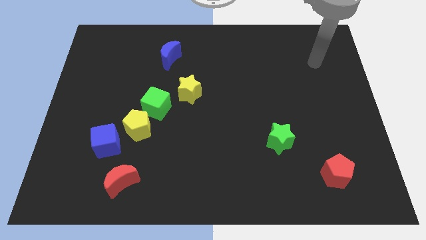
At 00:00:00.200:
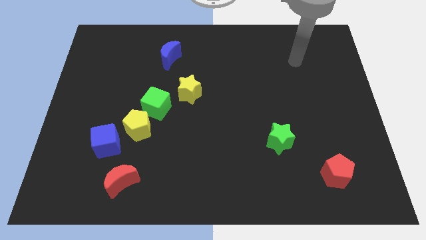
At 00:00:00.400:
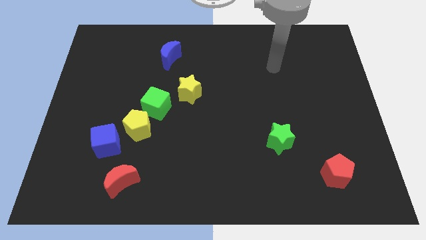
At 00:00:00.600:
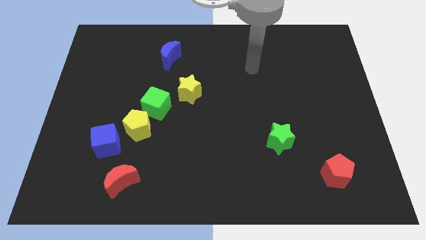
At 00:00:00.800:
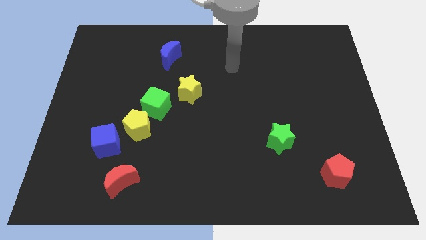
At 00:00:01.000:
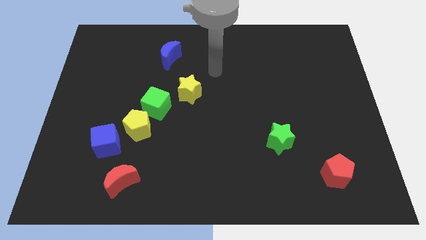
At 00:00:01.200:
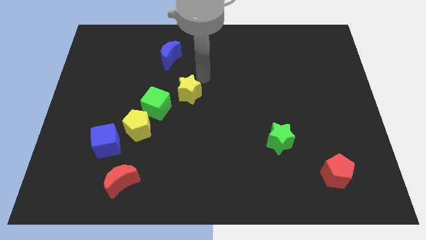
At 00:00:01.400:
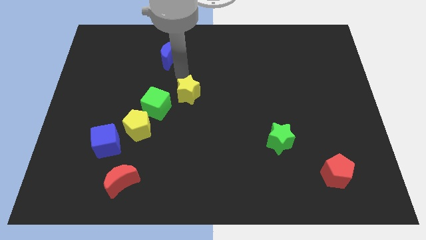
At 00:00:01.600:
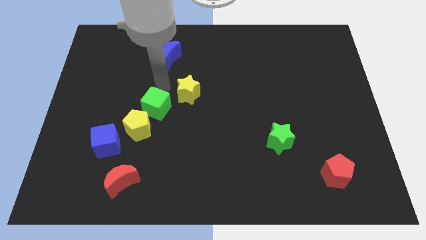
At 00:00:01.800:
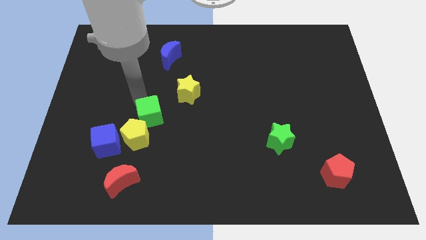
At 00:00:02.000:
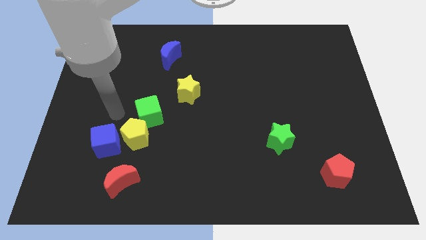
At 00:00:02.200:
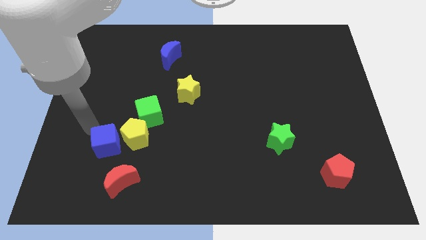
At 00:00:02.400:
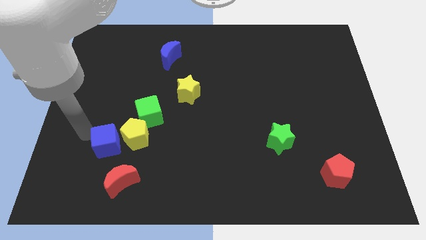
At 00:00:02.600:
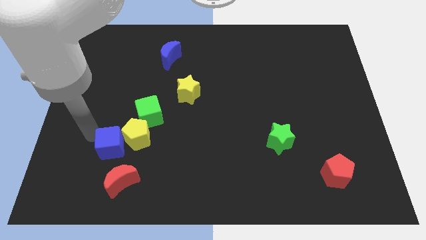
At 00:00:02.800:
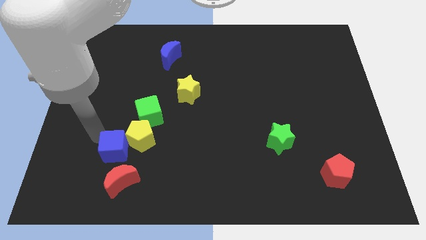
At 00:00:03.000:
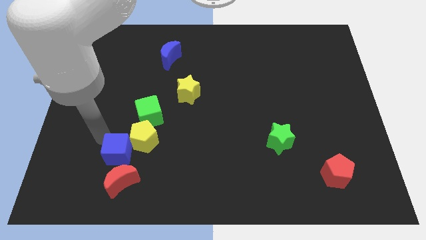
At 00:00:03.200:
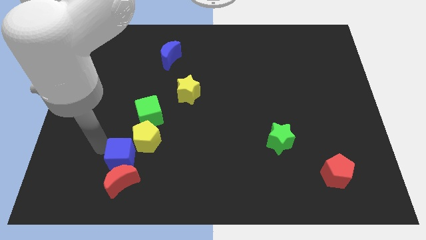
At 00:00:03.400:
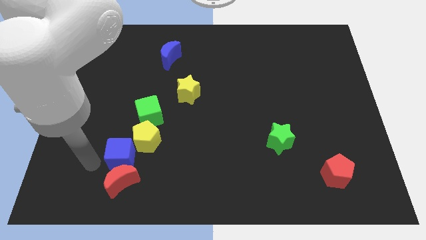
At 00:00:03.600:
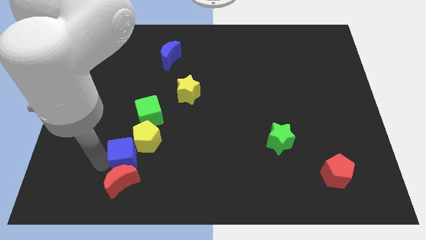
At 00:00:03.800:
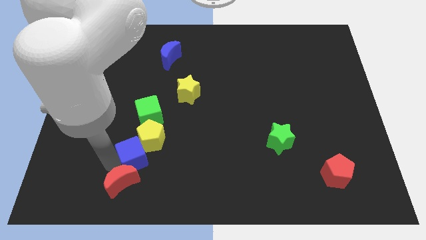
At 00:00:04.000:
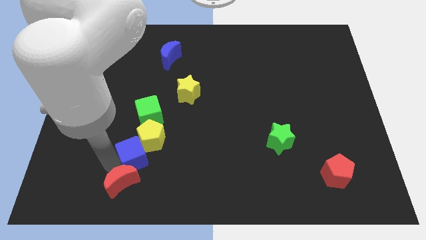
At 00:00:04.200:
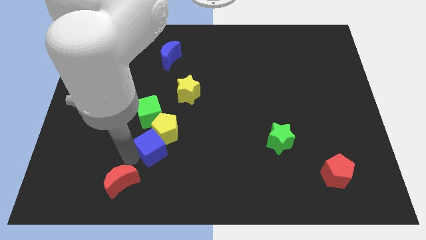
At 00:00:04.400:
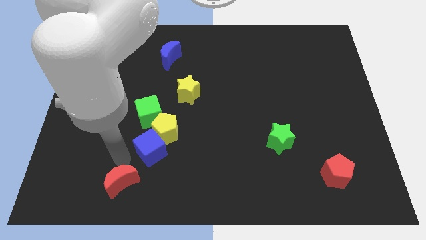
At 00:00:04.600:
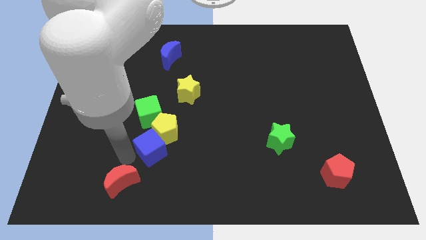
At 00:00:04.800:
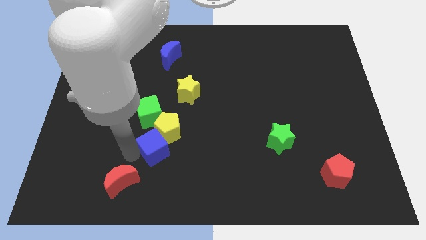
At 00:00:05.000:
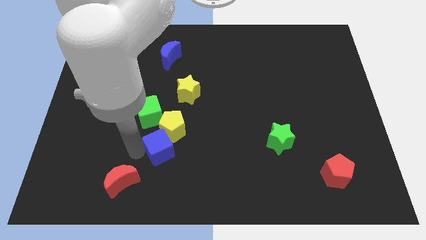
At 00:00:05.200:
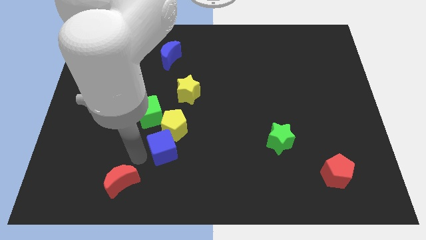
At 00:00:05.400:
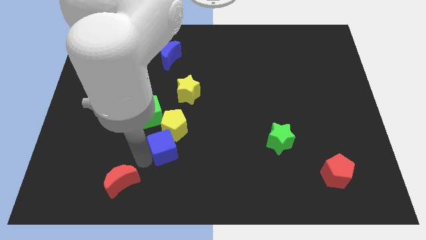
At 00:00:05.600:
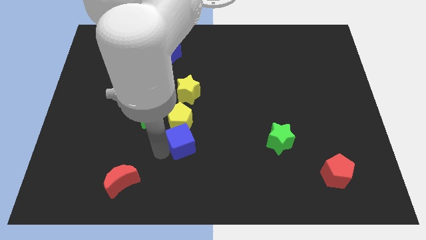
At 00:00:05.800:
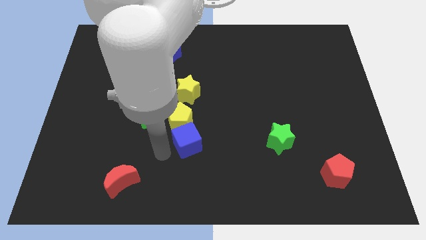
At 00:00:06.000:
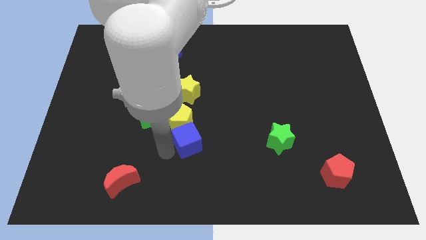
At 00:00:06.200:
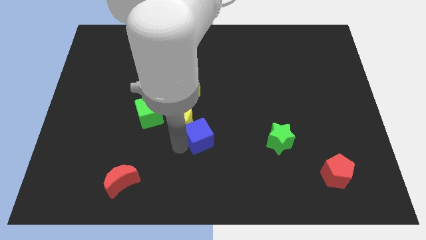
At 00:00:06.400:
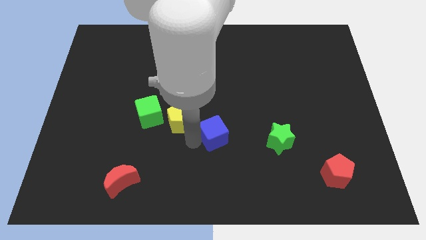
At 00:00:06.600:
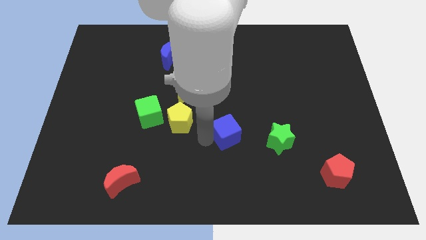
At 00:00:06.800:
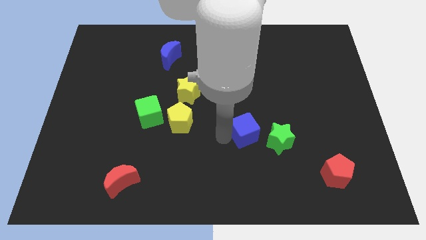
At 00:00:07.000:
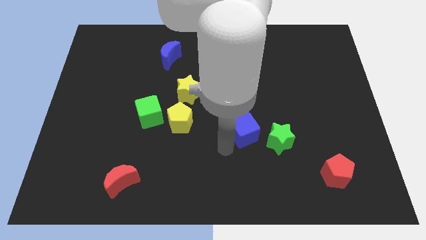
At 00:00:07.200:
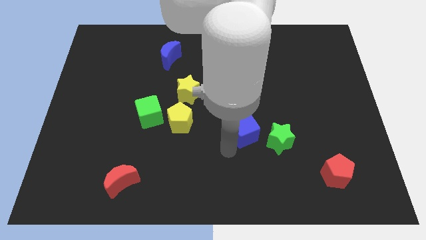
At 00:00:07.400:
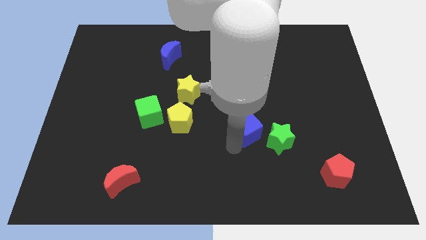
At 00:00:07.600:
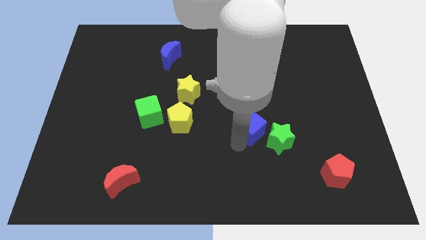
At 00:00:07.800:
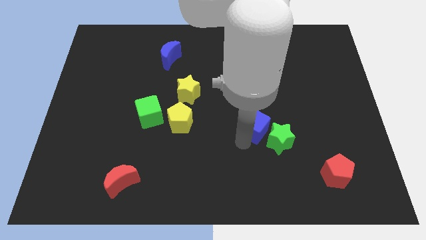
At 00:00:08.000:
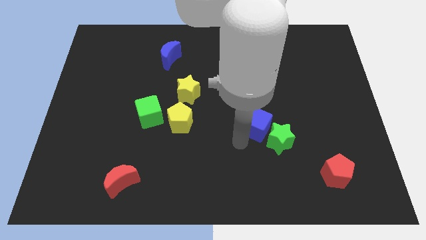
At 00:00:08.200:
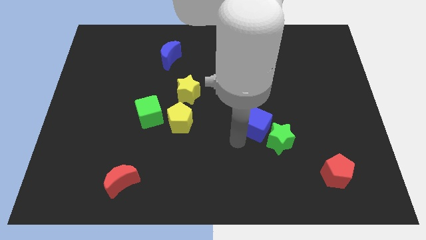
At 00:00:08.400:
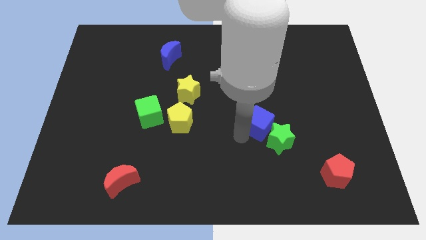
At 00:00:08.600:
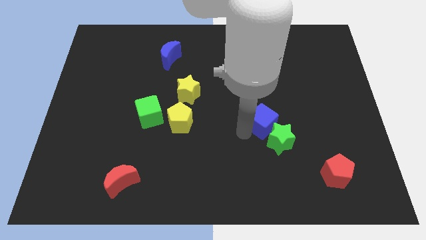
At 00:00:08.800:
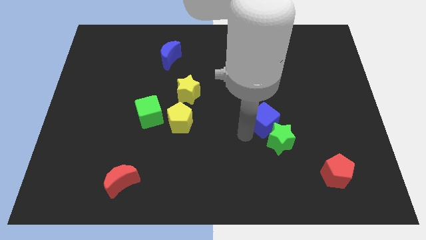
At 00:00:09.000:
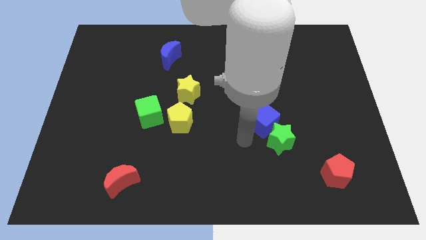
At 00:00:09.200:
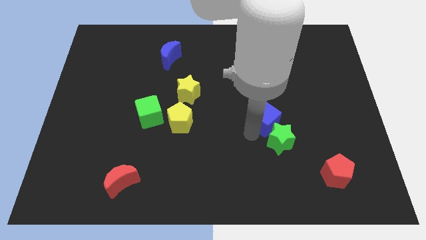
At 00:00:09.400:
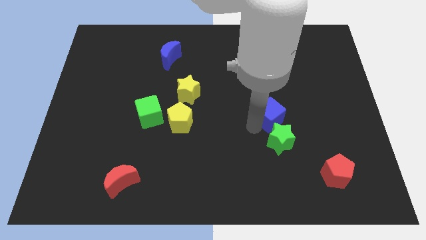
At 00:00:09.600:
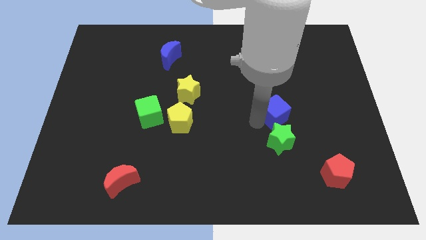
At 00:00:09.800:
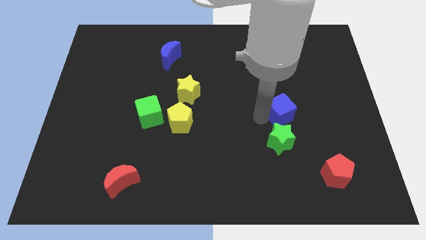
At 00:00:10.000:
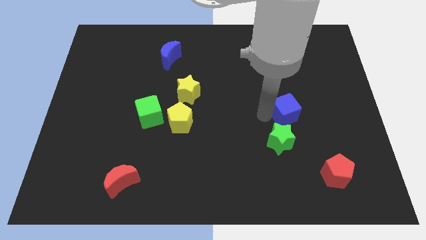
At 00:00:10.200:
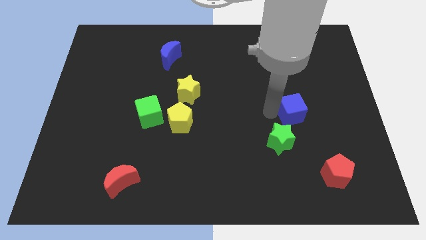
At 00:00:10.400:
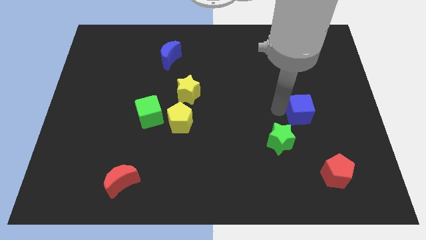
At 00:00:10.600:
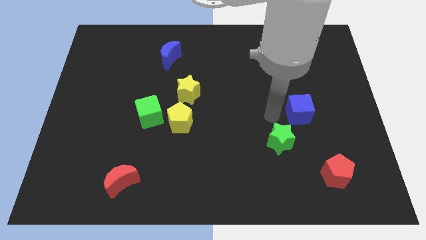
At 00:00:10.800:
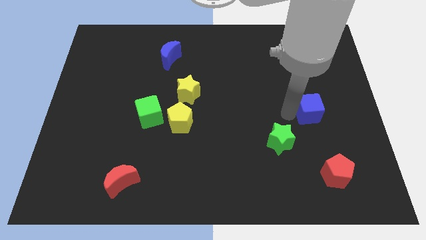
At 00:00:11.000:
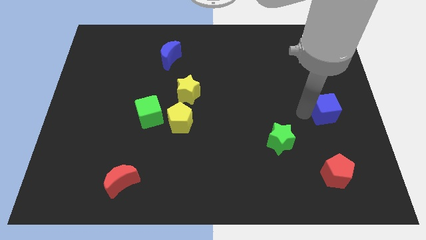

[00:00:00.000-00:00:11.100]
push the blue cube to the center right

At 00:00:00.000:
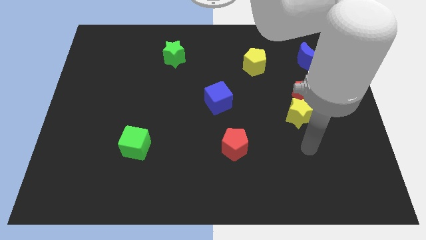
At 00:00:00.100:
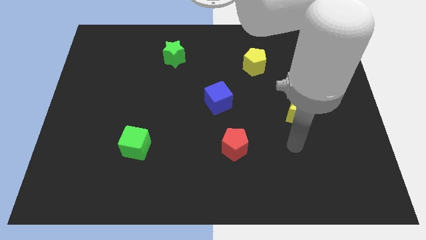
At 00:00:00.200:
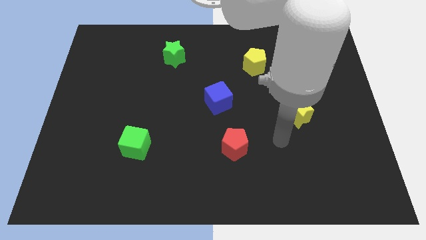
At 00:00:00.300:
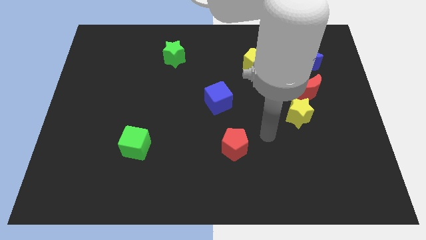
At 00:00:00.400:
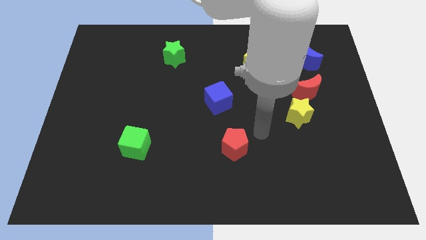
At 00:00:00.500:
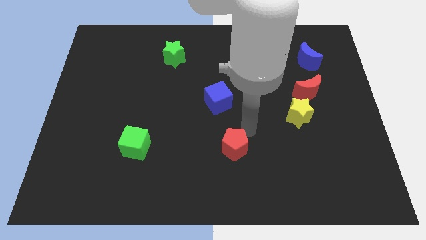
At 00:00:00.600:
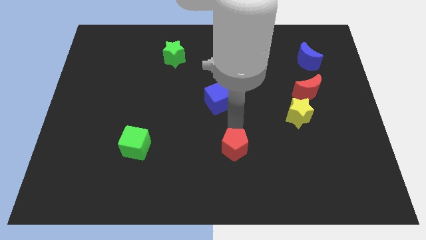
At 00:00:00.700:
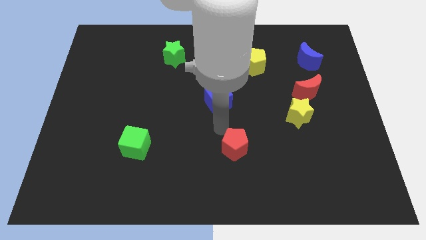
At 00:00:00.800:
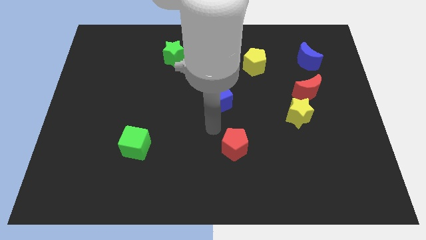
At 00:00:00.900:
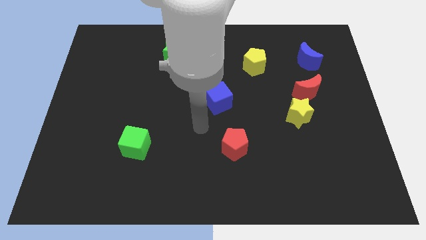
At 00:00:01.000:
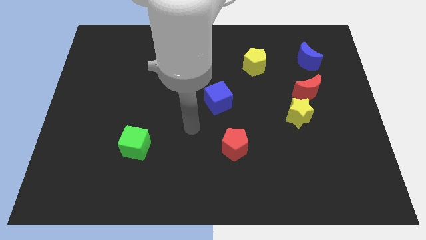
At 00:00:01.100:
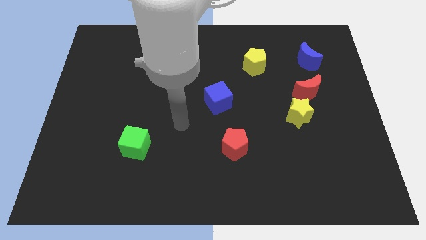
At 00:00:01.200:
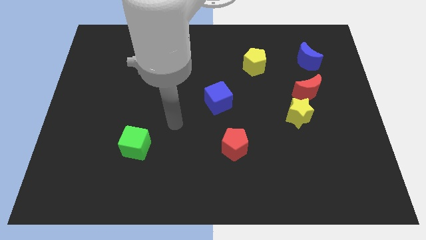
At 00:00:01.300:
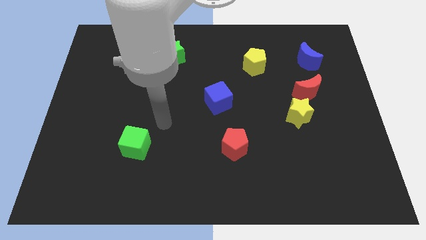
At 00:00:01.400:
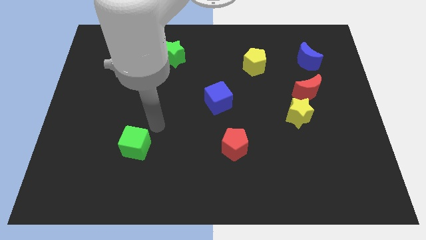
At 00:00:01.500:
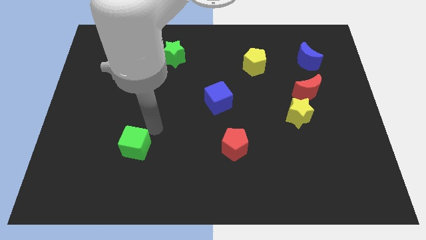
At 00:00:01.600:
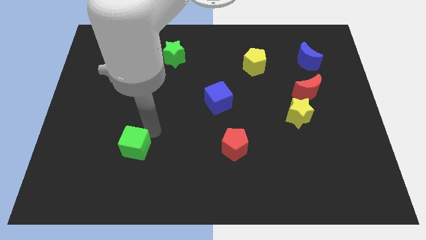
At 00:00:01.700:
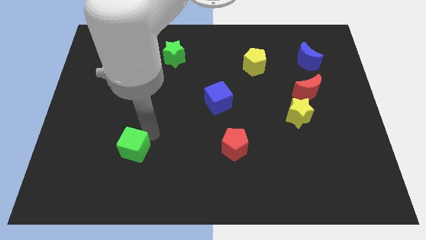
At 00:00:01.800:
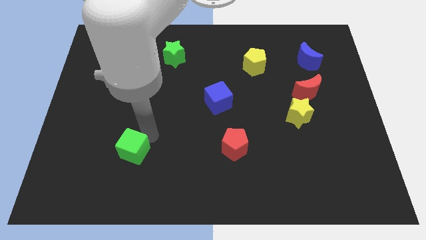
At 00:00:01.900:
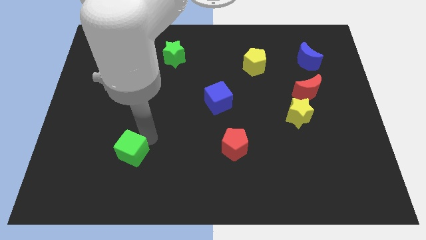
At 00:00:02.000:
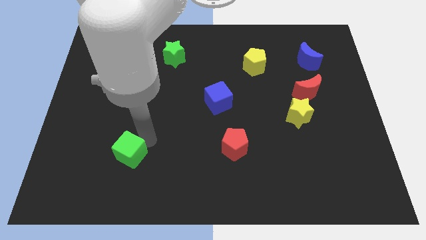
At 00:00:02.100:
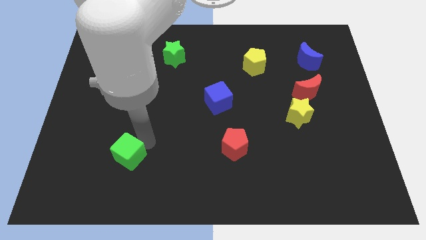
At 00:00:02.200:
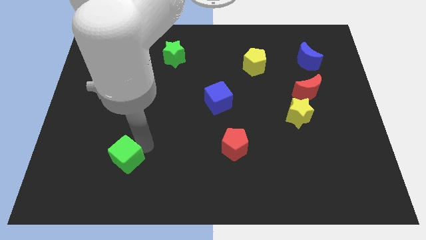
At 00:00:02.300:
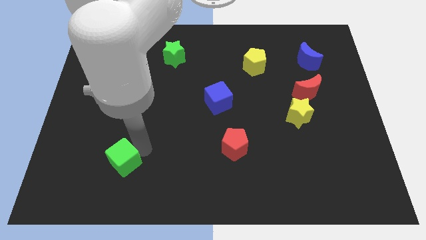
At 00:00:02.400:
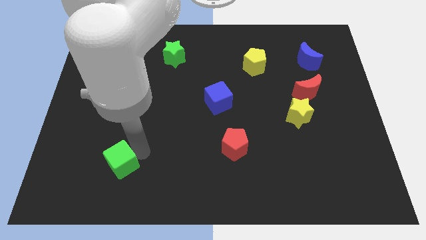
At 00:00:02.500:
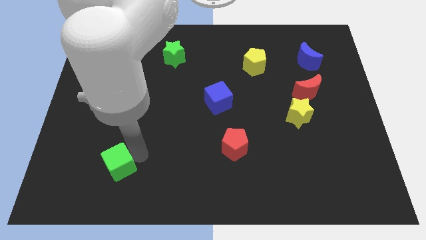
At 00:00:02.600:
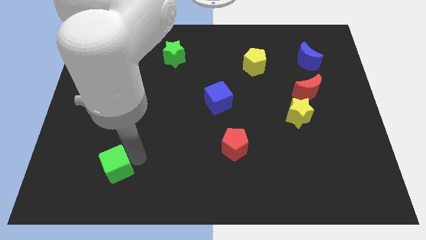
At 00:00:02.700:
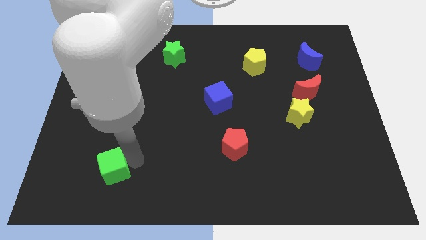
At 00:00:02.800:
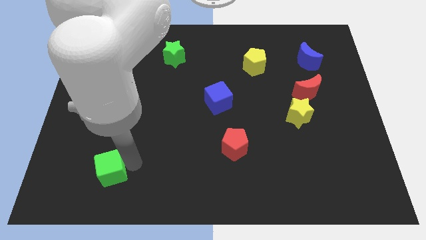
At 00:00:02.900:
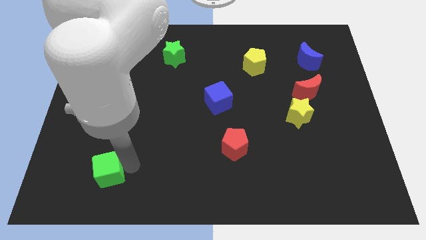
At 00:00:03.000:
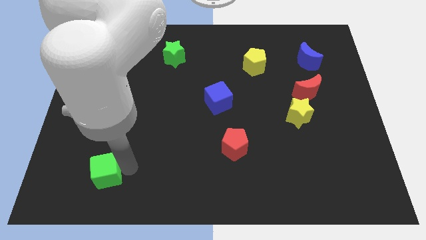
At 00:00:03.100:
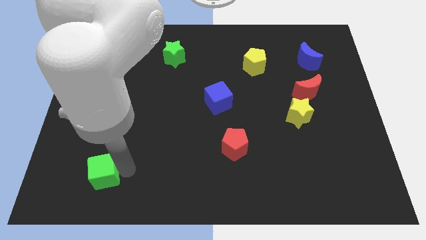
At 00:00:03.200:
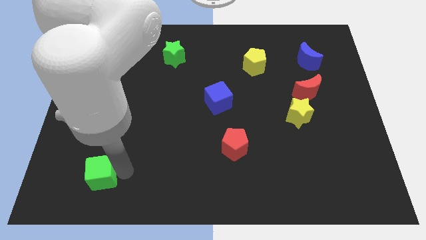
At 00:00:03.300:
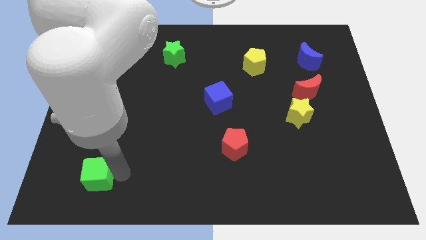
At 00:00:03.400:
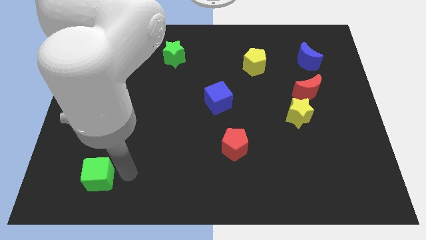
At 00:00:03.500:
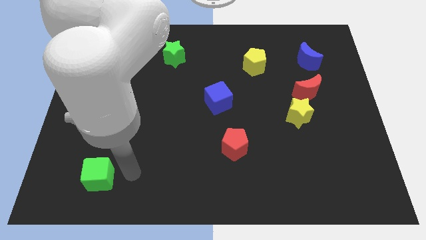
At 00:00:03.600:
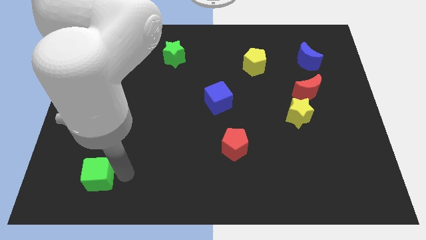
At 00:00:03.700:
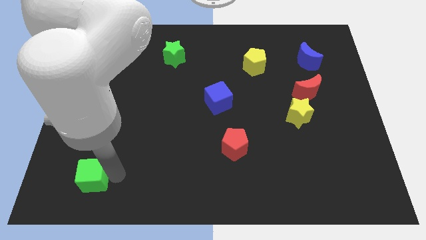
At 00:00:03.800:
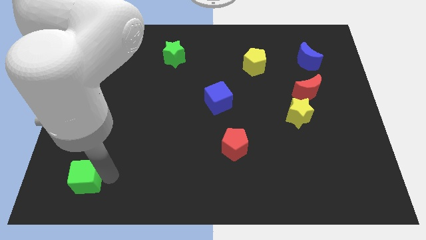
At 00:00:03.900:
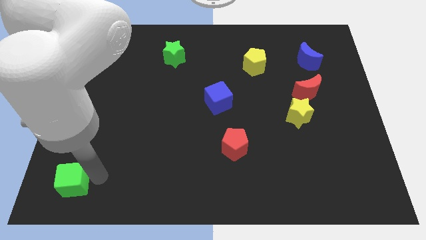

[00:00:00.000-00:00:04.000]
move the green cube to the lower left corner
